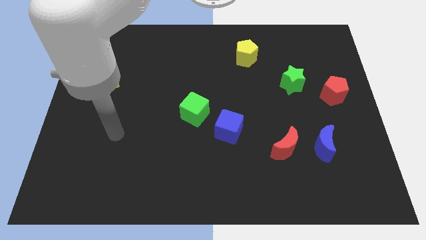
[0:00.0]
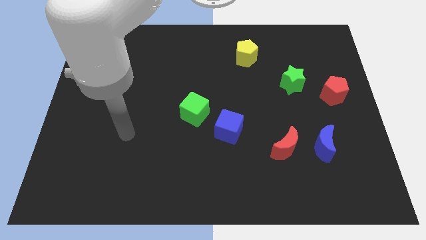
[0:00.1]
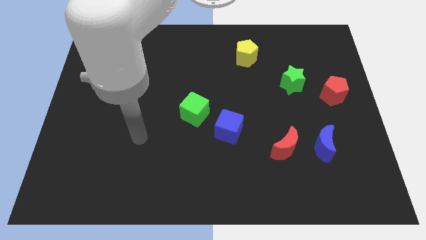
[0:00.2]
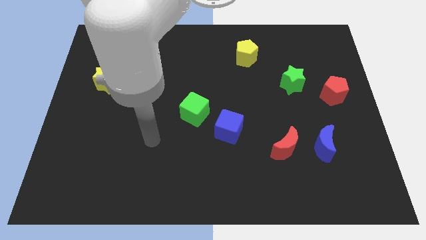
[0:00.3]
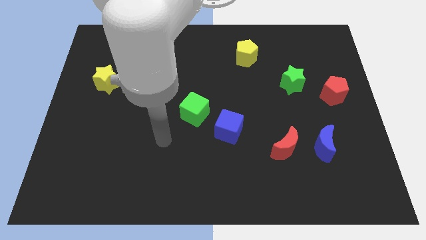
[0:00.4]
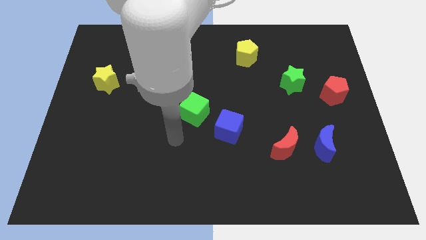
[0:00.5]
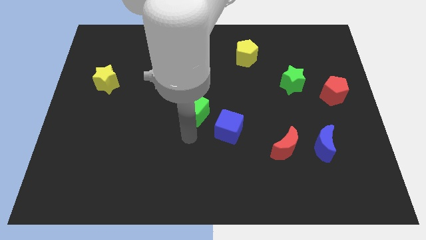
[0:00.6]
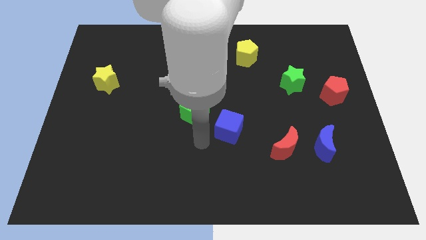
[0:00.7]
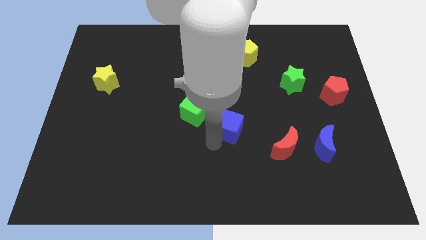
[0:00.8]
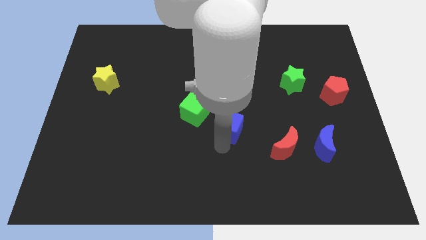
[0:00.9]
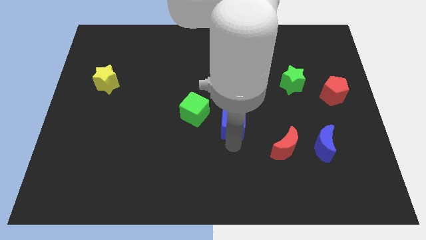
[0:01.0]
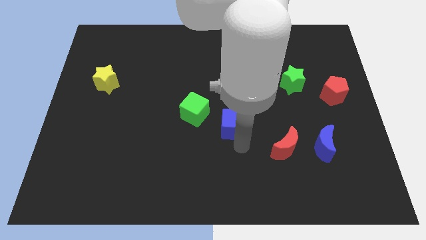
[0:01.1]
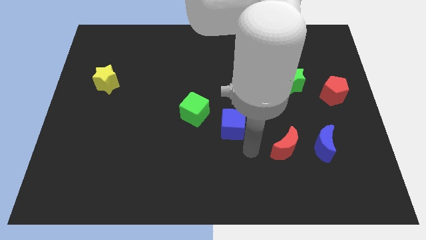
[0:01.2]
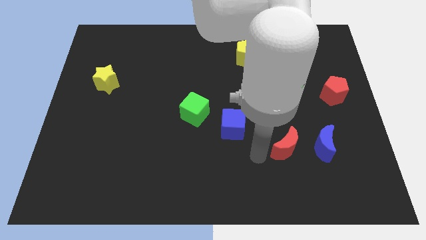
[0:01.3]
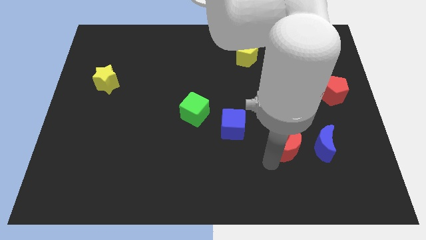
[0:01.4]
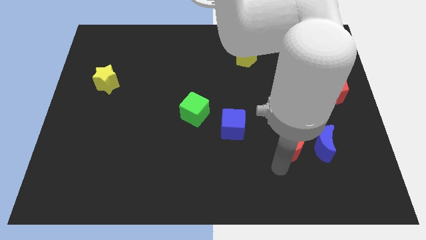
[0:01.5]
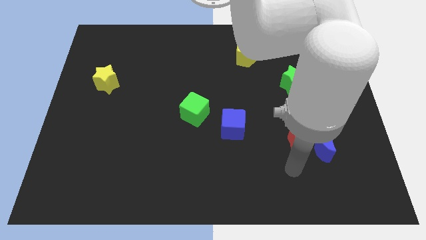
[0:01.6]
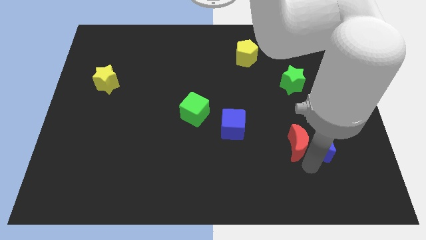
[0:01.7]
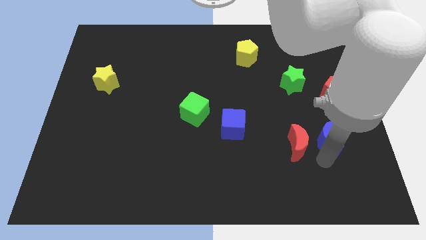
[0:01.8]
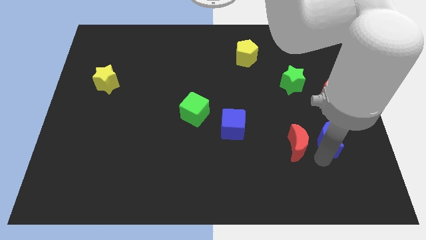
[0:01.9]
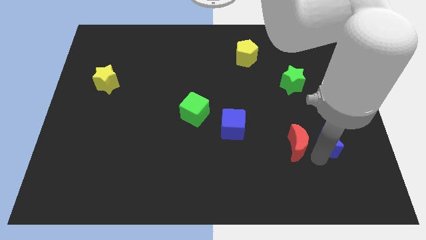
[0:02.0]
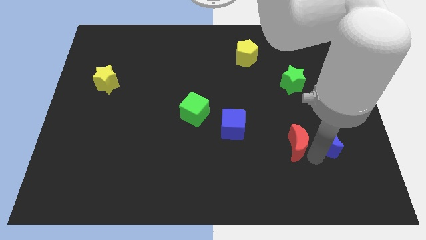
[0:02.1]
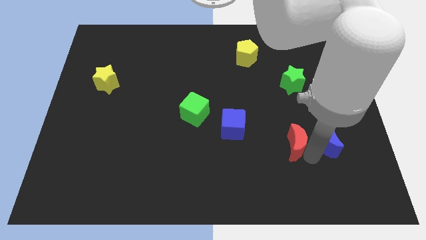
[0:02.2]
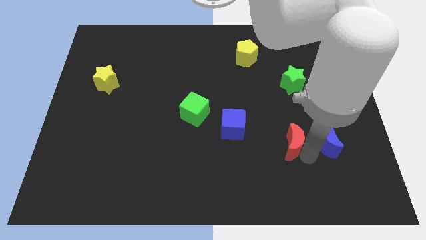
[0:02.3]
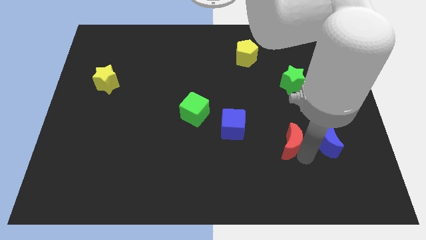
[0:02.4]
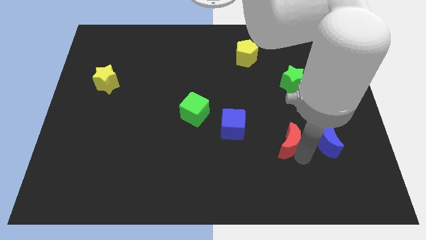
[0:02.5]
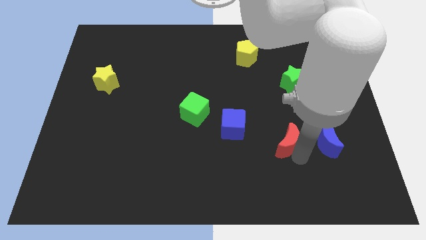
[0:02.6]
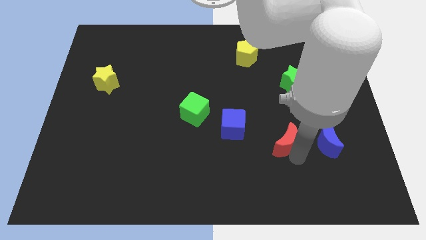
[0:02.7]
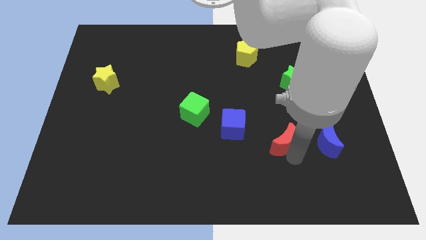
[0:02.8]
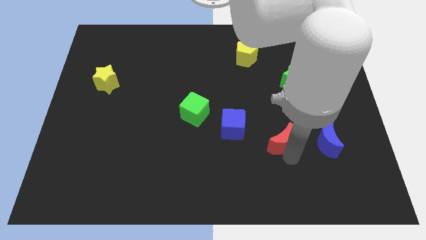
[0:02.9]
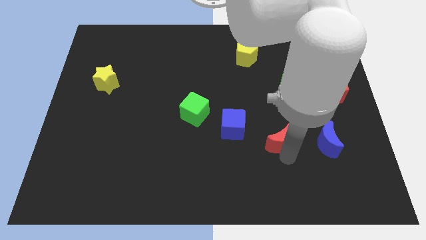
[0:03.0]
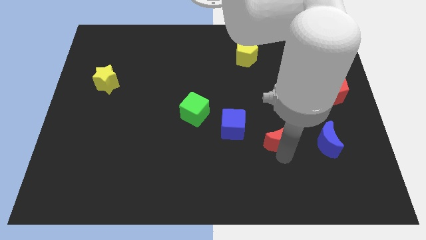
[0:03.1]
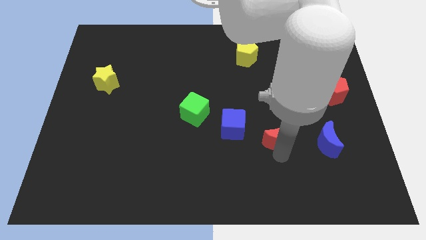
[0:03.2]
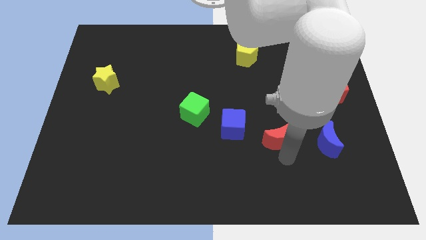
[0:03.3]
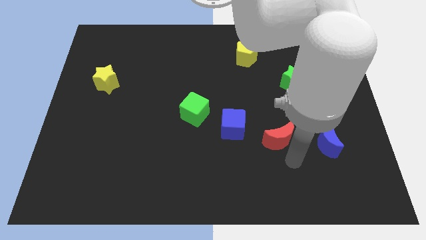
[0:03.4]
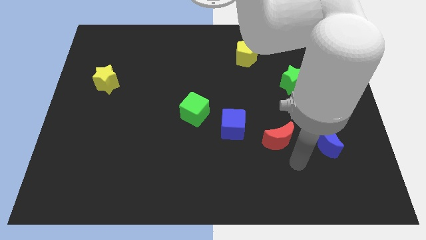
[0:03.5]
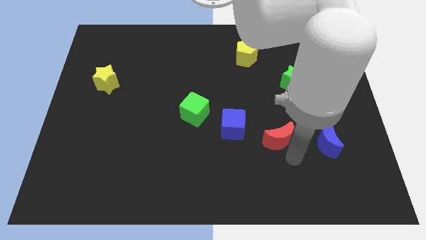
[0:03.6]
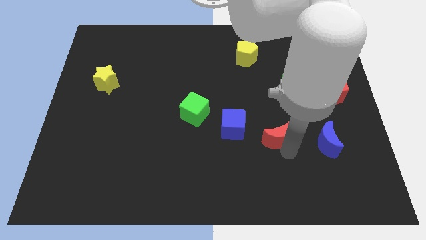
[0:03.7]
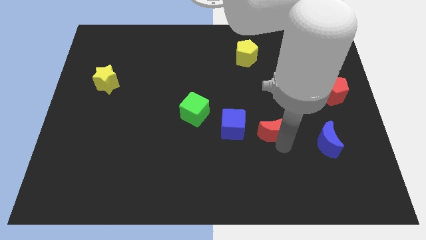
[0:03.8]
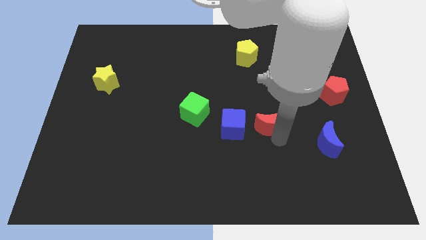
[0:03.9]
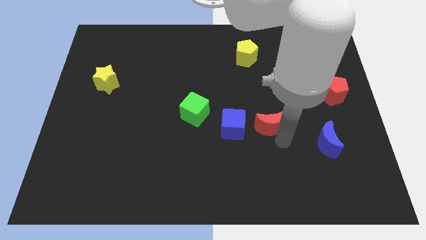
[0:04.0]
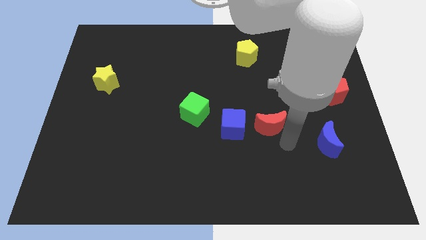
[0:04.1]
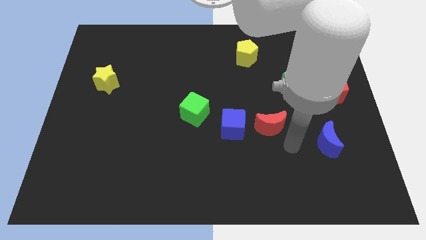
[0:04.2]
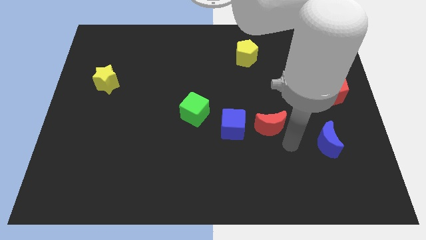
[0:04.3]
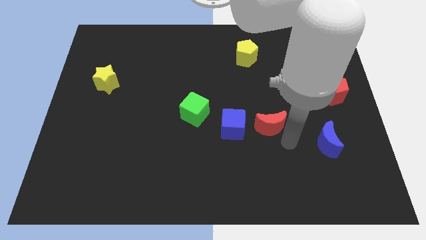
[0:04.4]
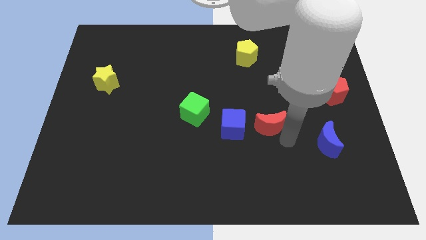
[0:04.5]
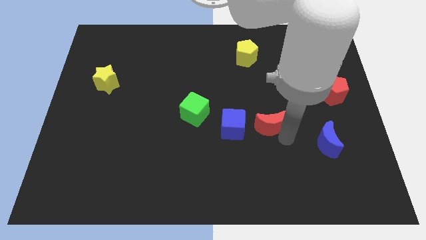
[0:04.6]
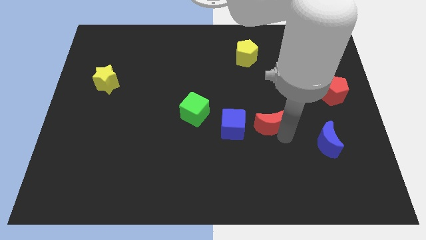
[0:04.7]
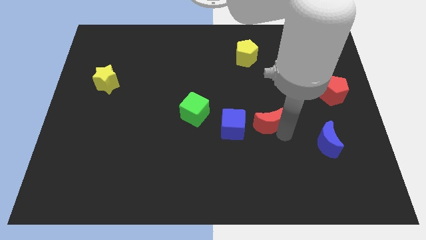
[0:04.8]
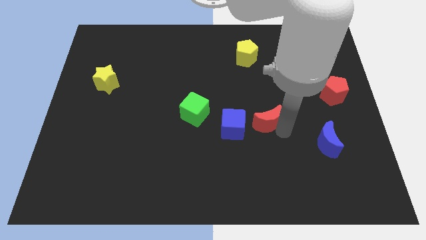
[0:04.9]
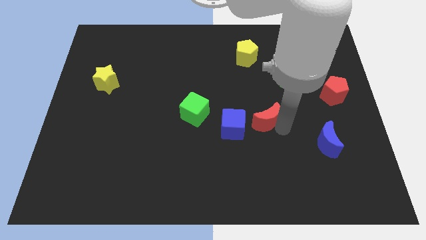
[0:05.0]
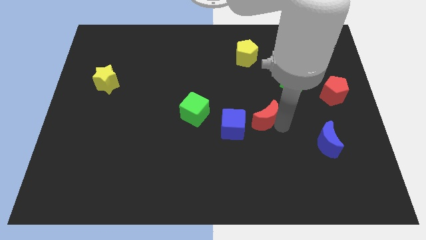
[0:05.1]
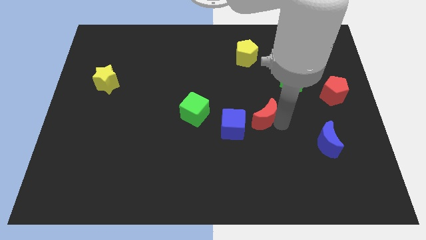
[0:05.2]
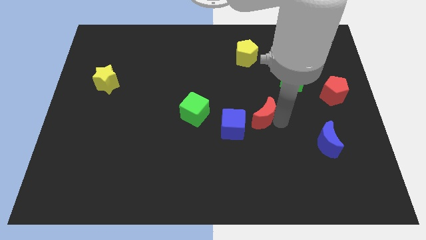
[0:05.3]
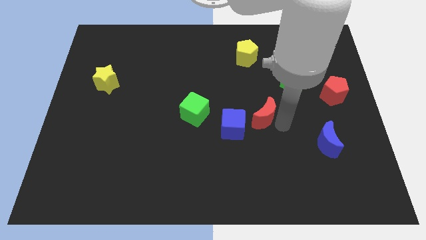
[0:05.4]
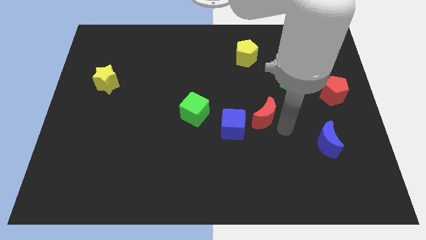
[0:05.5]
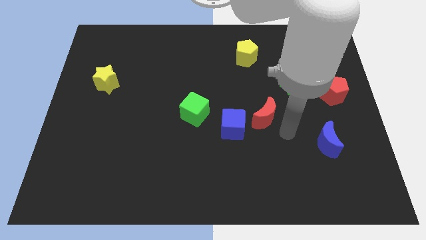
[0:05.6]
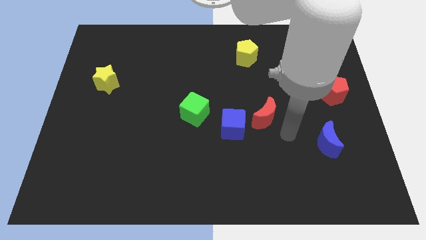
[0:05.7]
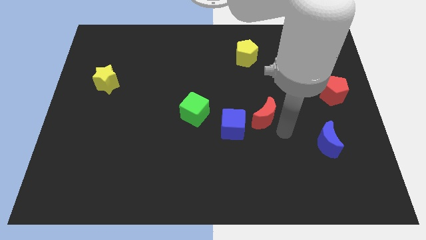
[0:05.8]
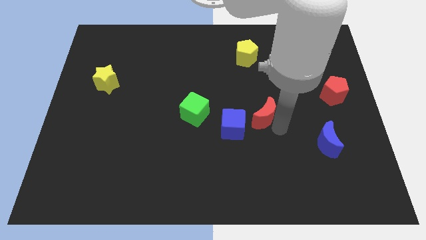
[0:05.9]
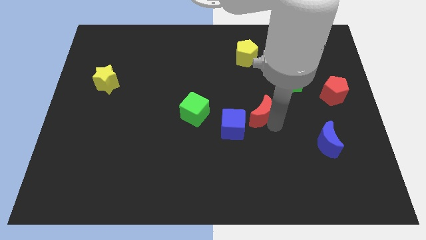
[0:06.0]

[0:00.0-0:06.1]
put the red moon to the center
